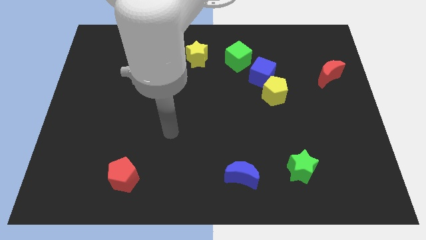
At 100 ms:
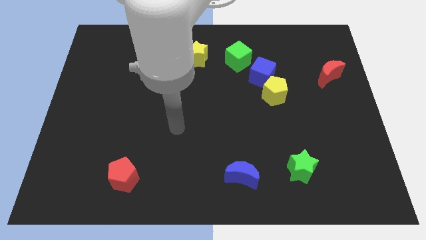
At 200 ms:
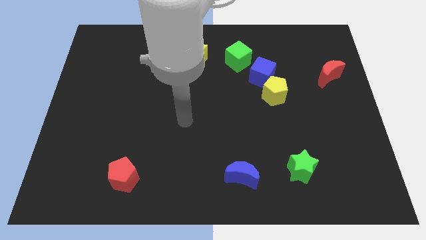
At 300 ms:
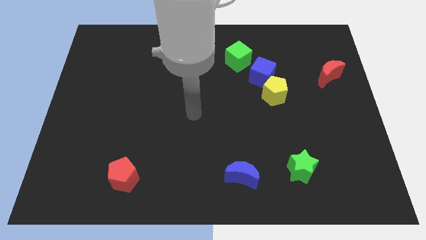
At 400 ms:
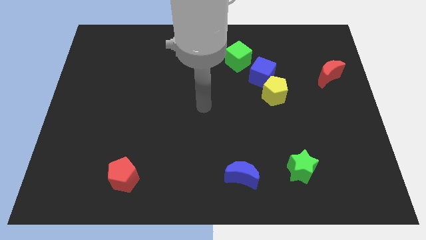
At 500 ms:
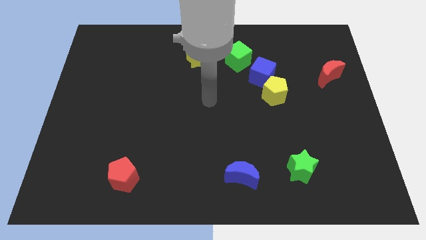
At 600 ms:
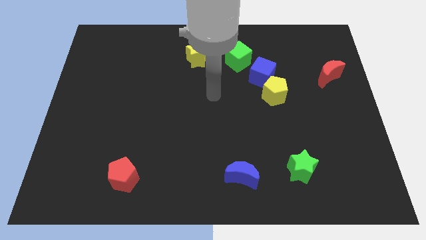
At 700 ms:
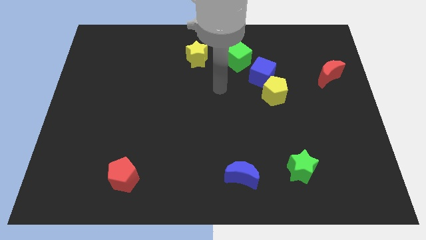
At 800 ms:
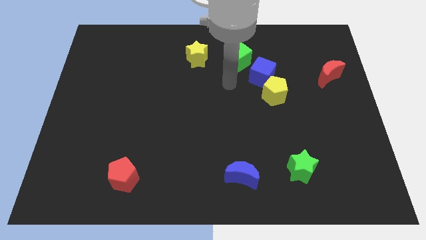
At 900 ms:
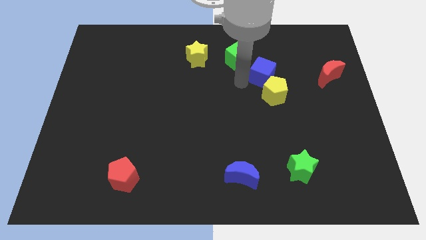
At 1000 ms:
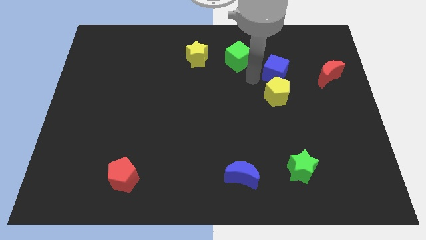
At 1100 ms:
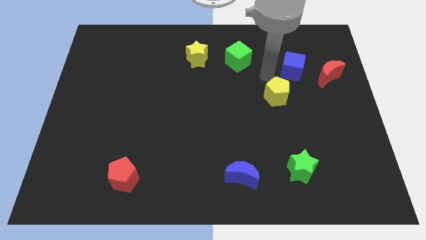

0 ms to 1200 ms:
pull the yellow pentagon apart from the blue cube

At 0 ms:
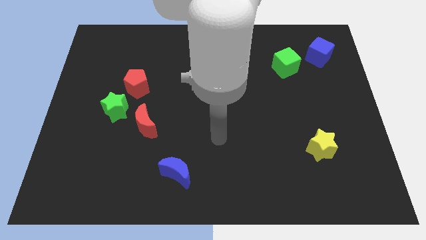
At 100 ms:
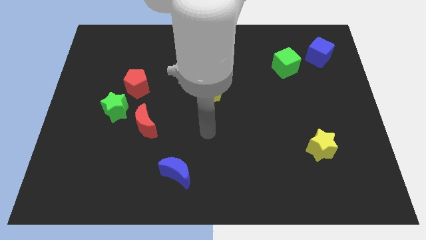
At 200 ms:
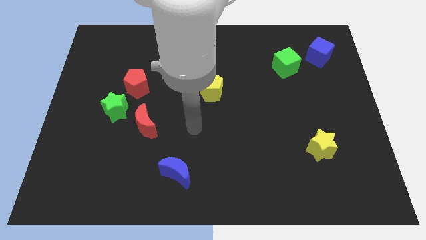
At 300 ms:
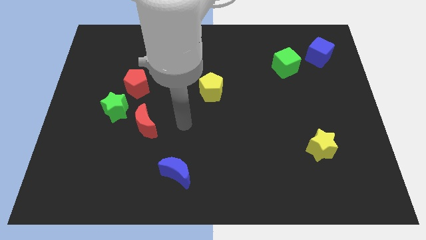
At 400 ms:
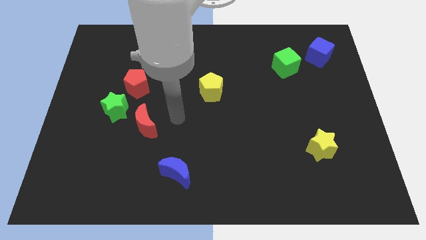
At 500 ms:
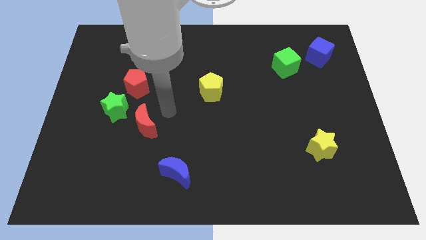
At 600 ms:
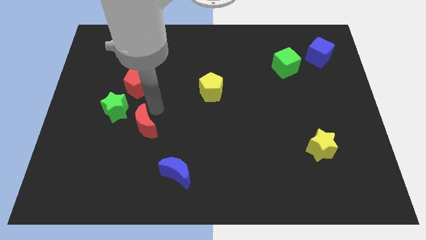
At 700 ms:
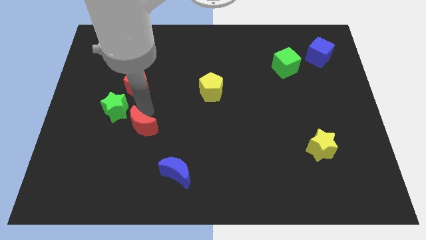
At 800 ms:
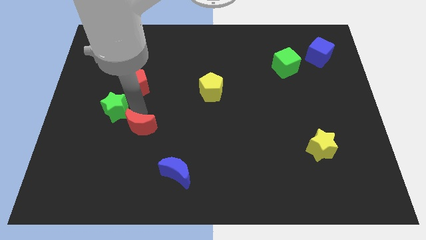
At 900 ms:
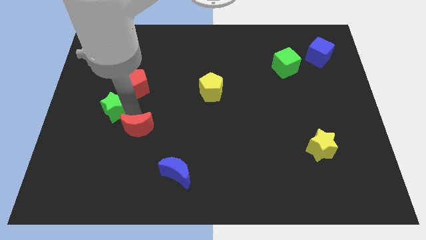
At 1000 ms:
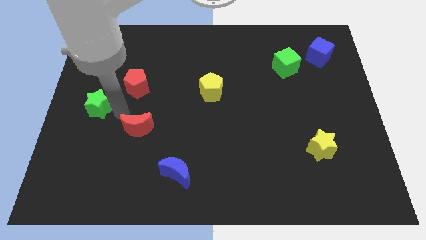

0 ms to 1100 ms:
pull the red moon apart from the green star

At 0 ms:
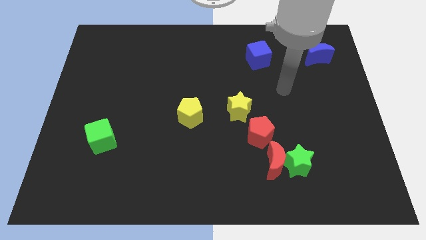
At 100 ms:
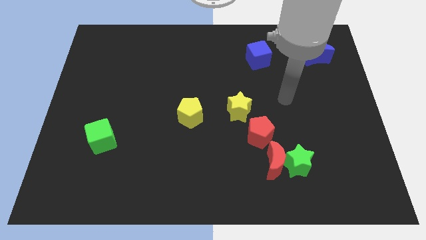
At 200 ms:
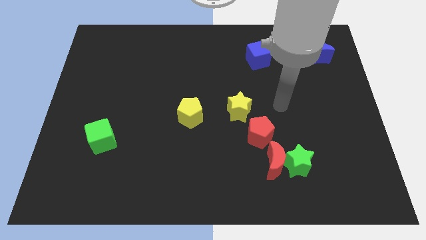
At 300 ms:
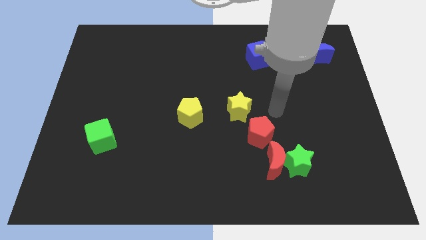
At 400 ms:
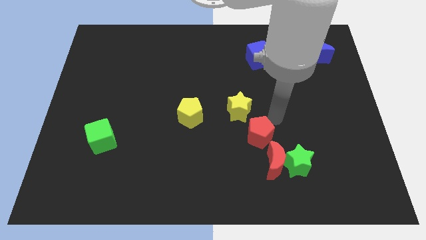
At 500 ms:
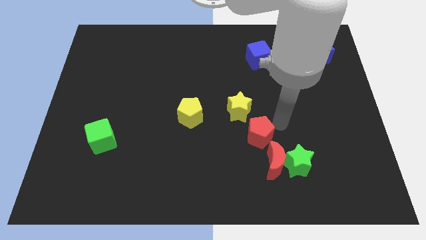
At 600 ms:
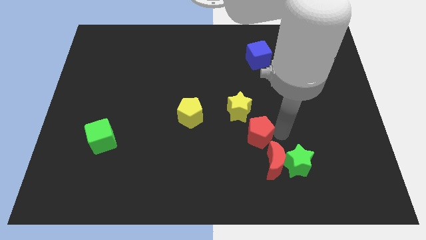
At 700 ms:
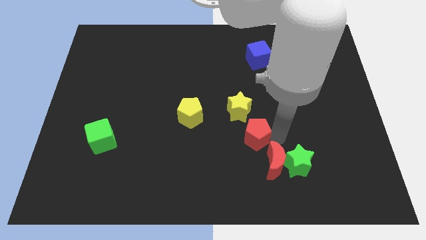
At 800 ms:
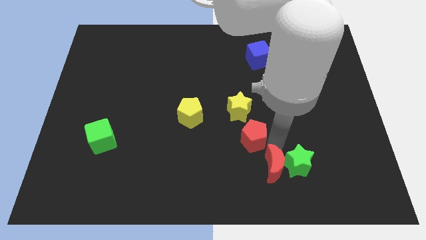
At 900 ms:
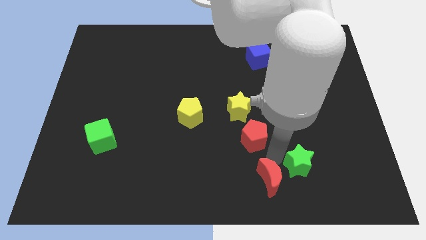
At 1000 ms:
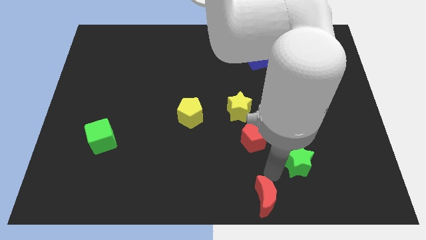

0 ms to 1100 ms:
move the green star away from the red moon

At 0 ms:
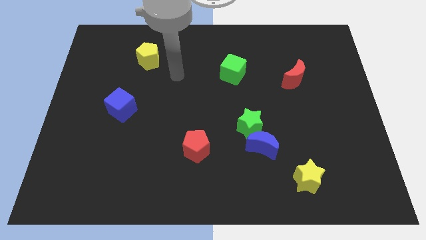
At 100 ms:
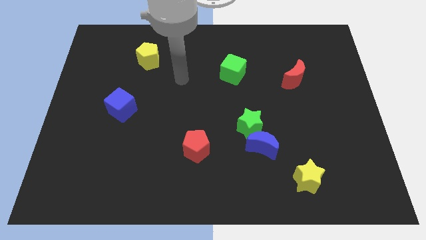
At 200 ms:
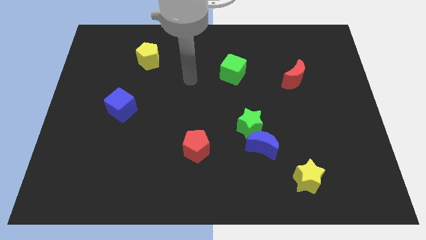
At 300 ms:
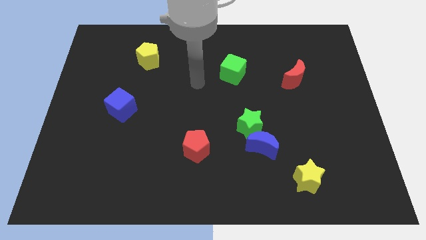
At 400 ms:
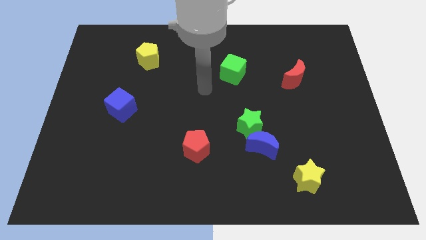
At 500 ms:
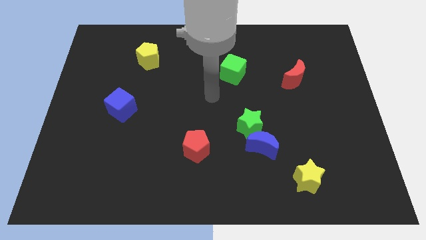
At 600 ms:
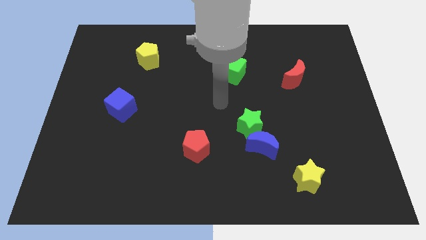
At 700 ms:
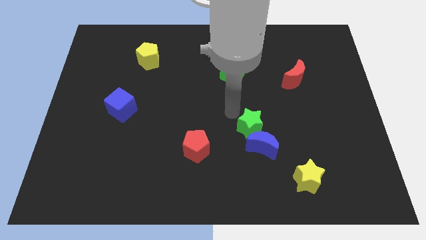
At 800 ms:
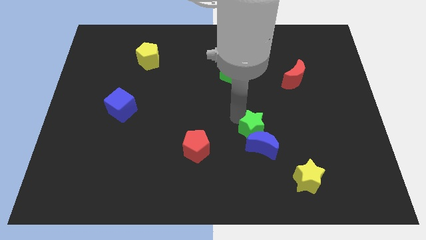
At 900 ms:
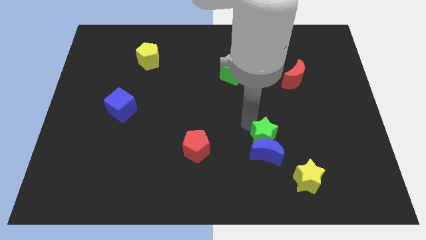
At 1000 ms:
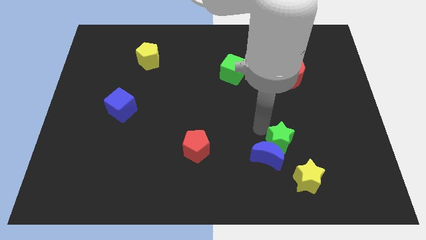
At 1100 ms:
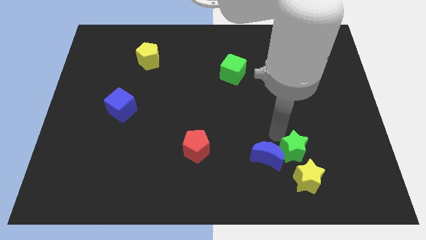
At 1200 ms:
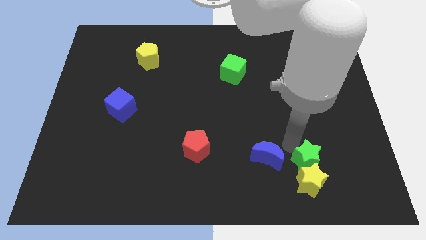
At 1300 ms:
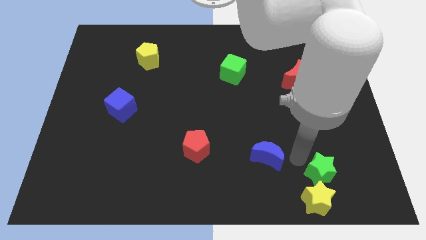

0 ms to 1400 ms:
separate the blue moon from the green star

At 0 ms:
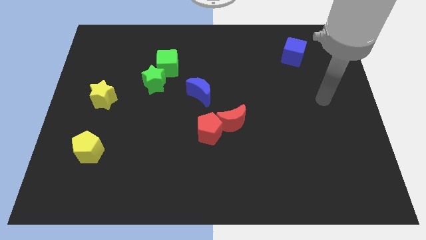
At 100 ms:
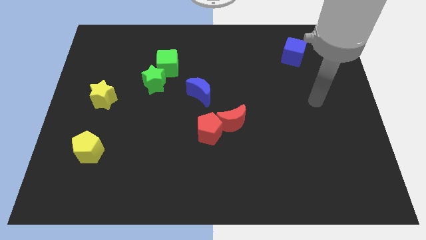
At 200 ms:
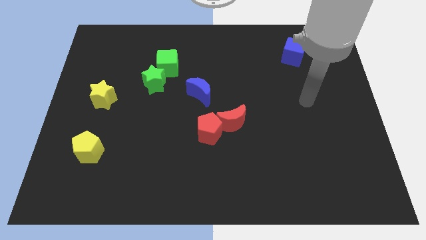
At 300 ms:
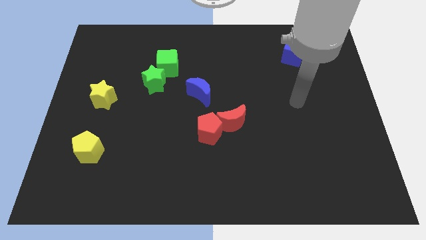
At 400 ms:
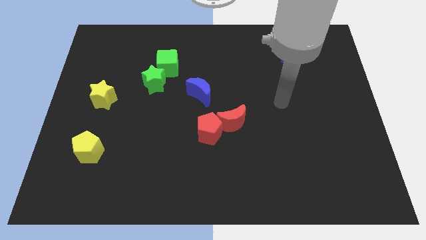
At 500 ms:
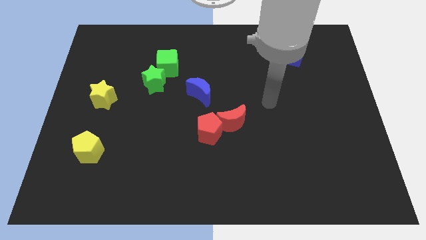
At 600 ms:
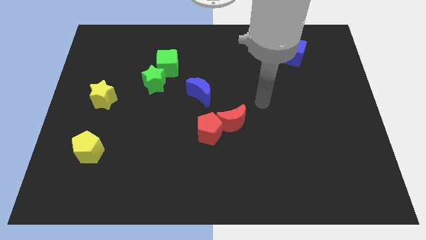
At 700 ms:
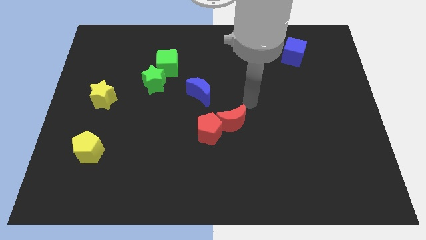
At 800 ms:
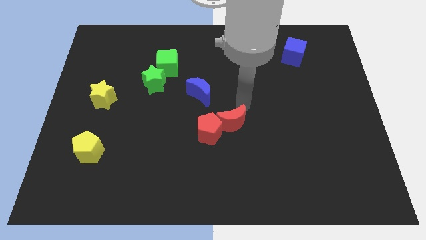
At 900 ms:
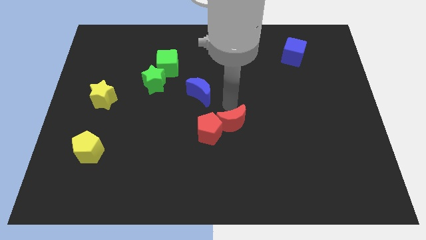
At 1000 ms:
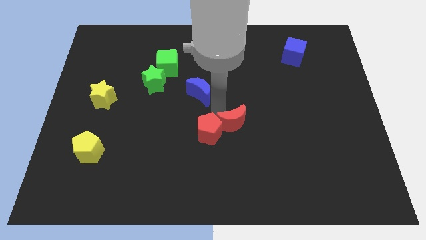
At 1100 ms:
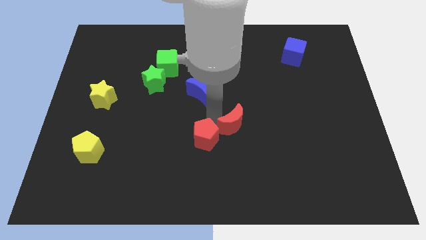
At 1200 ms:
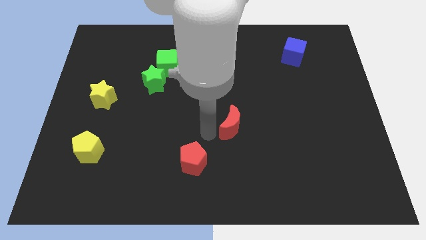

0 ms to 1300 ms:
pull the red moon apart from the red pentagon

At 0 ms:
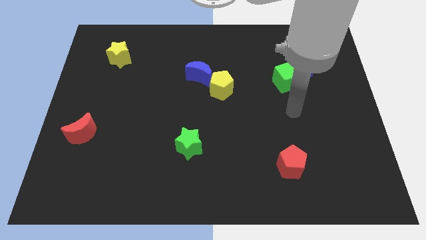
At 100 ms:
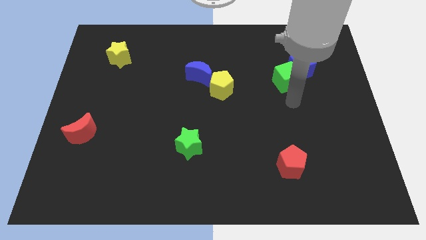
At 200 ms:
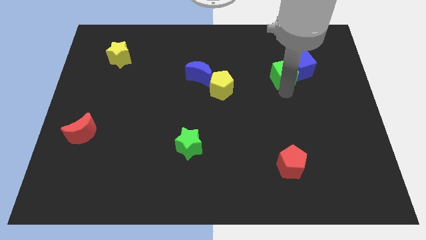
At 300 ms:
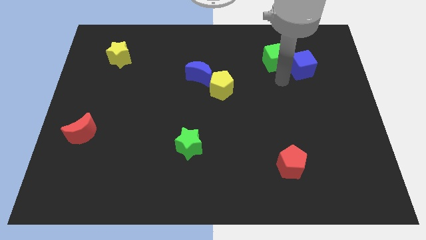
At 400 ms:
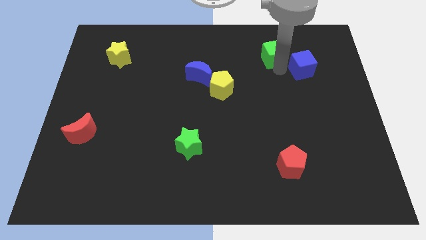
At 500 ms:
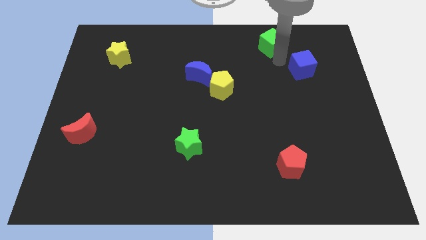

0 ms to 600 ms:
separate the blue cube from the green cube

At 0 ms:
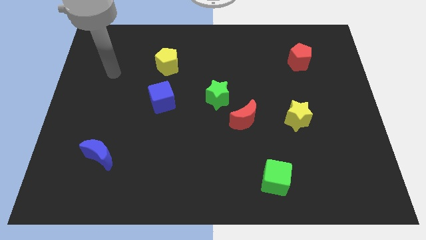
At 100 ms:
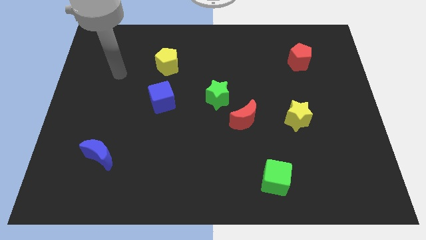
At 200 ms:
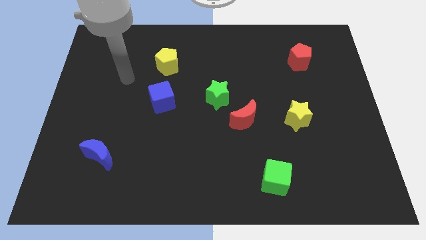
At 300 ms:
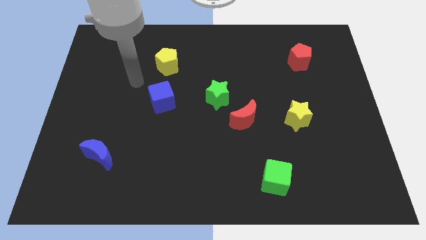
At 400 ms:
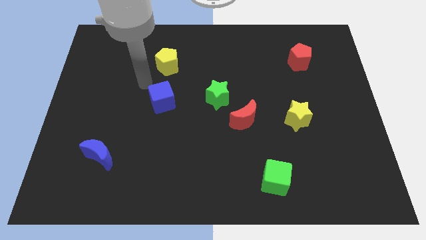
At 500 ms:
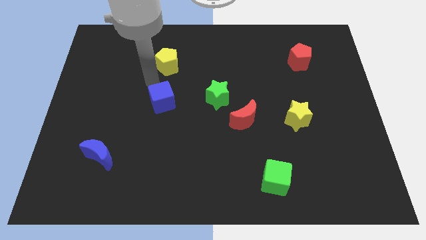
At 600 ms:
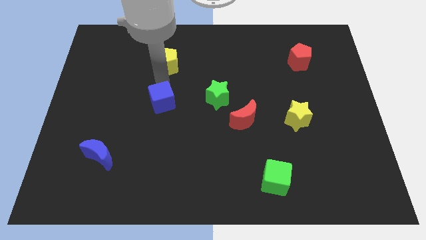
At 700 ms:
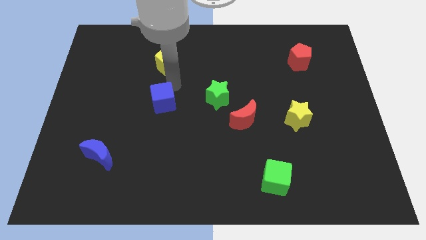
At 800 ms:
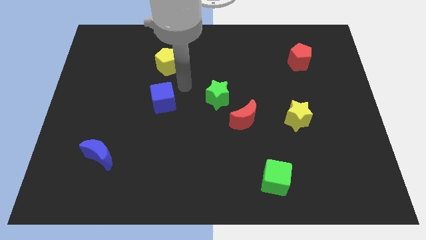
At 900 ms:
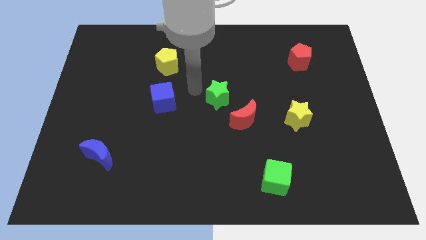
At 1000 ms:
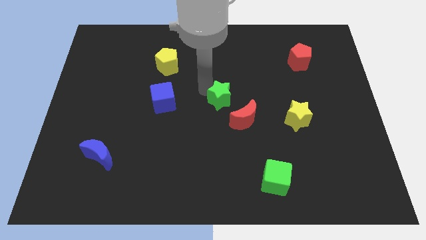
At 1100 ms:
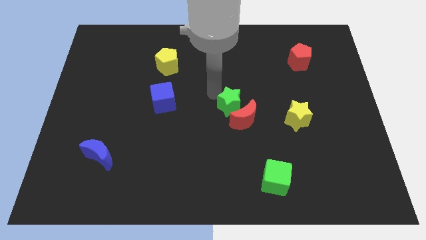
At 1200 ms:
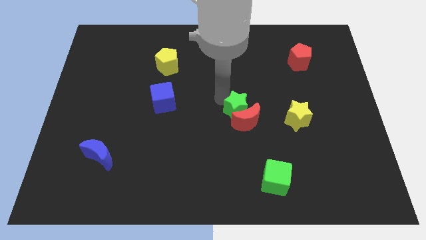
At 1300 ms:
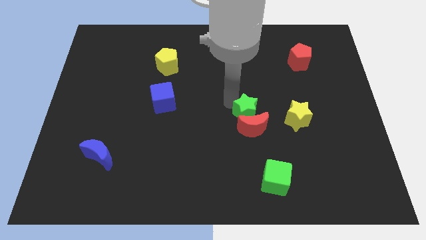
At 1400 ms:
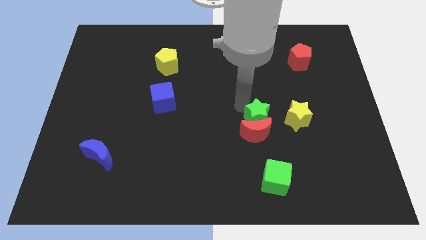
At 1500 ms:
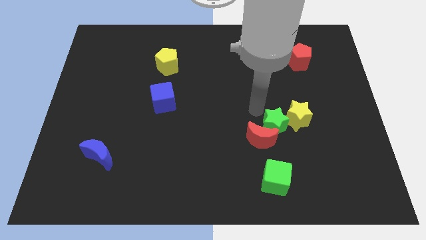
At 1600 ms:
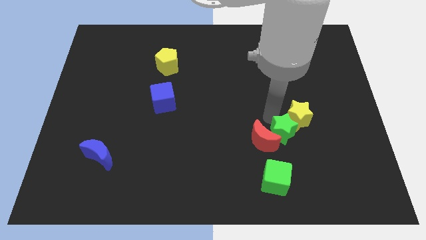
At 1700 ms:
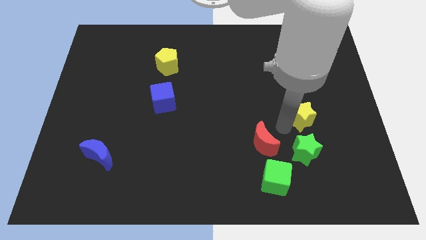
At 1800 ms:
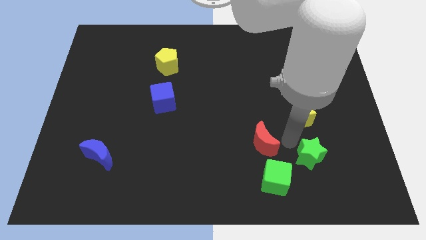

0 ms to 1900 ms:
separate the red moon from the green star

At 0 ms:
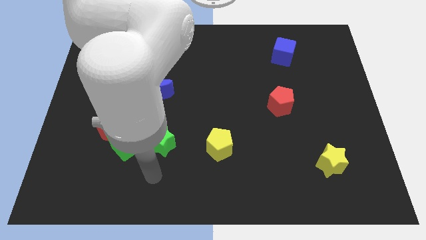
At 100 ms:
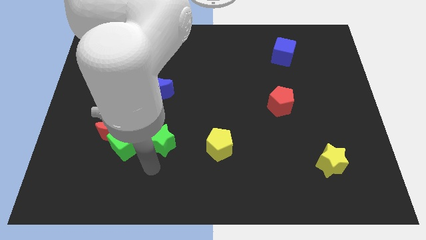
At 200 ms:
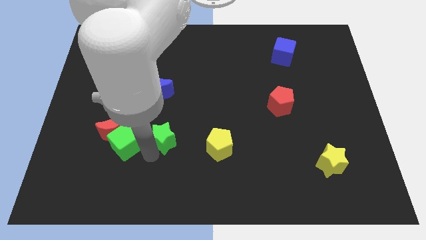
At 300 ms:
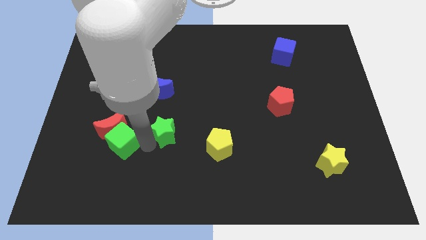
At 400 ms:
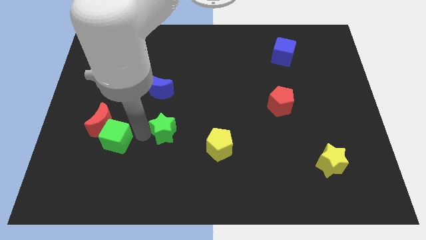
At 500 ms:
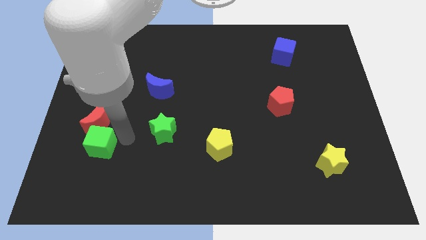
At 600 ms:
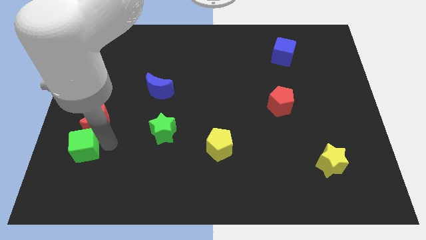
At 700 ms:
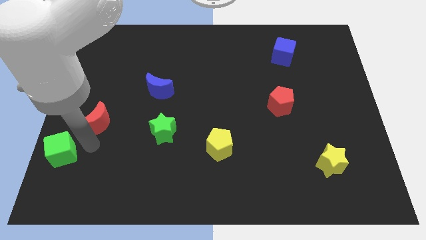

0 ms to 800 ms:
move the red moon away from the green cube
